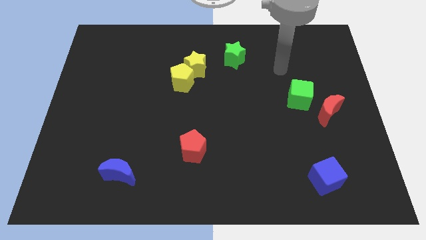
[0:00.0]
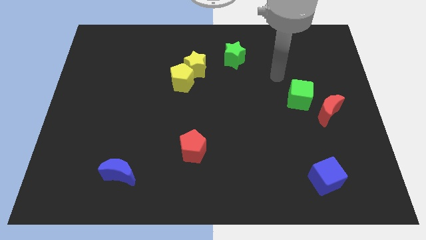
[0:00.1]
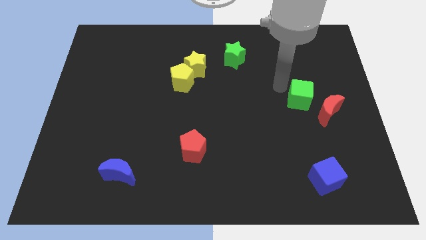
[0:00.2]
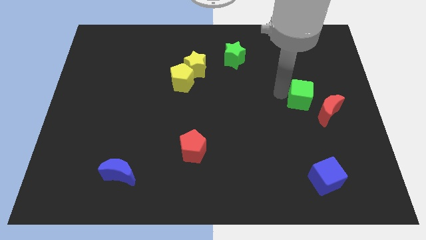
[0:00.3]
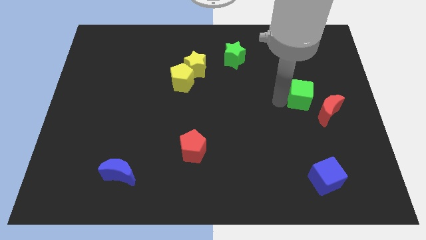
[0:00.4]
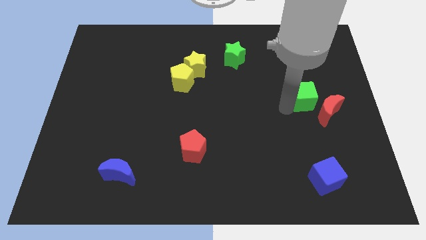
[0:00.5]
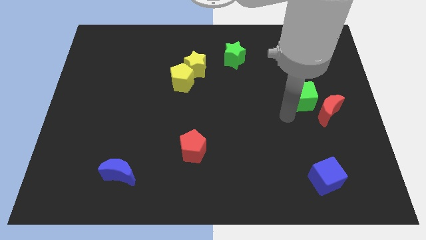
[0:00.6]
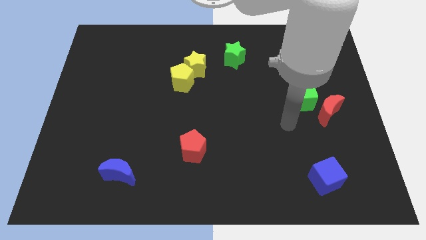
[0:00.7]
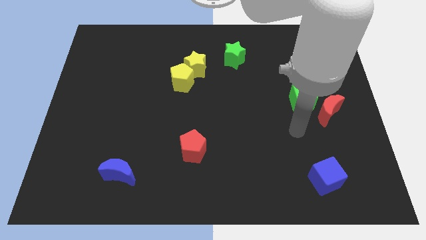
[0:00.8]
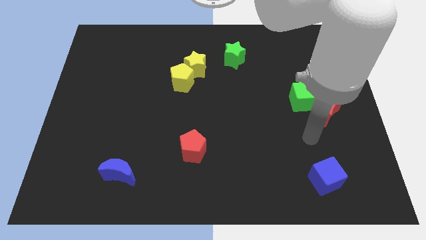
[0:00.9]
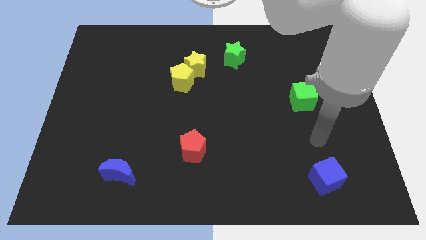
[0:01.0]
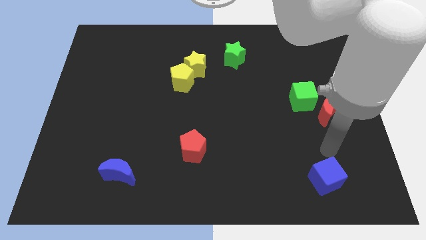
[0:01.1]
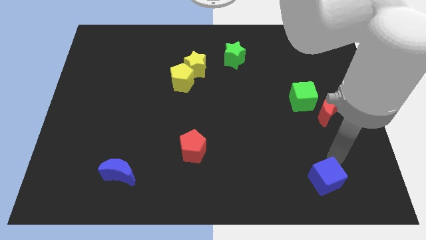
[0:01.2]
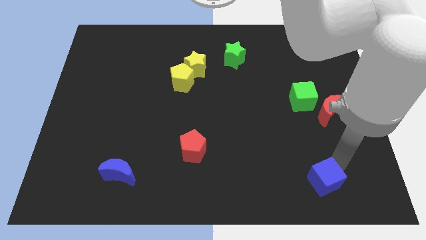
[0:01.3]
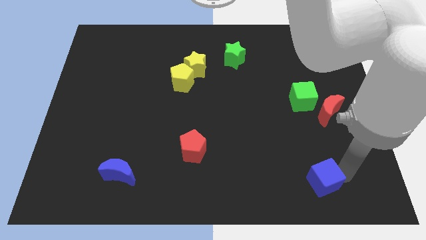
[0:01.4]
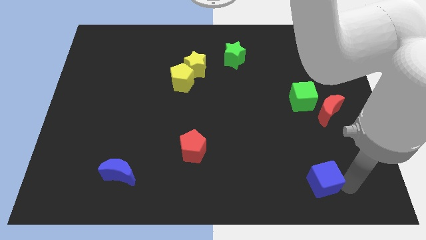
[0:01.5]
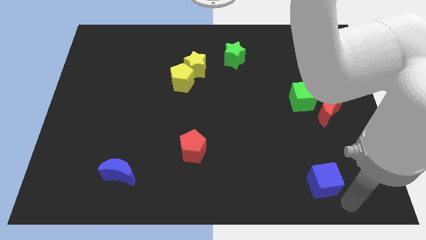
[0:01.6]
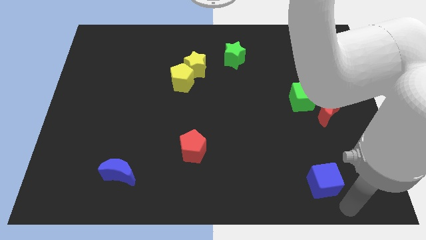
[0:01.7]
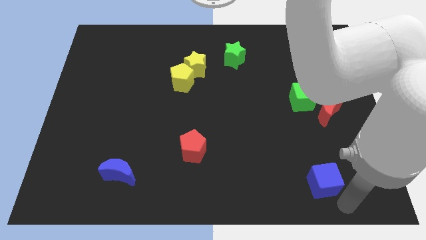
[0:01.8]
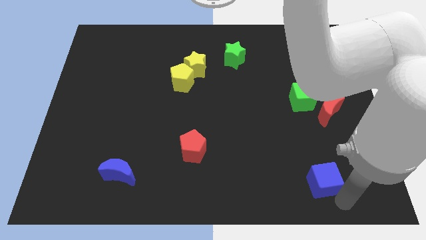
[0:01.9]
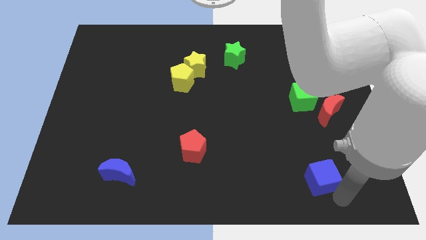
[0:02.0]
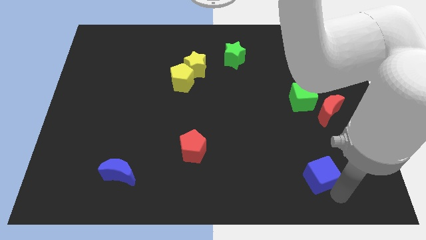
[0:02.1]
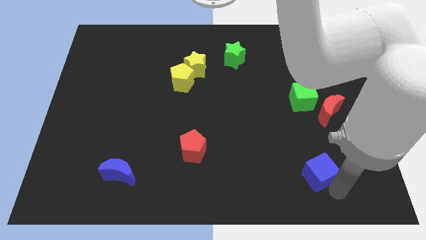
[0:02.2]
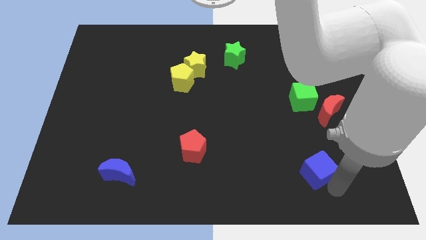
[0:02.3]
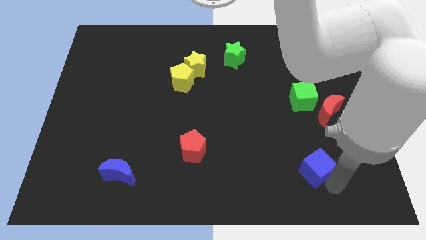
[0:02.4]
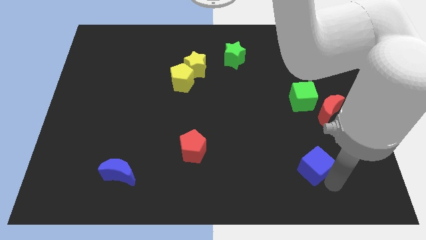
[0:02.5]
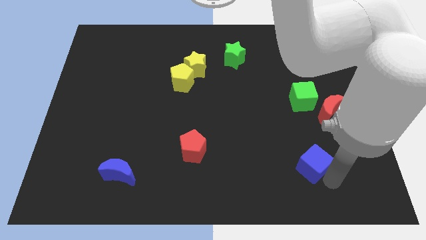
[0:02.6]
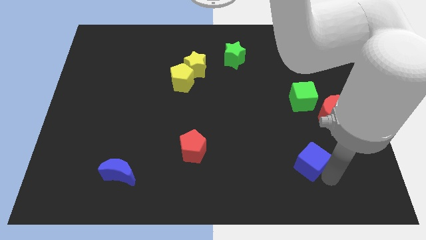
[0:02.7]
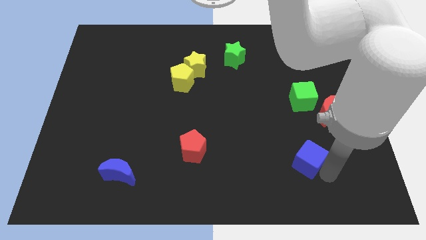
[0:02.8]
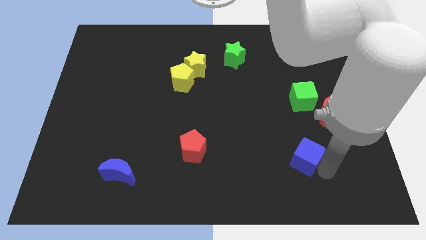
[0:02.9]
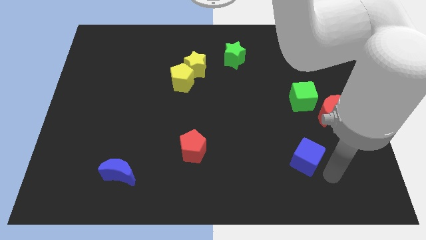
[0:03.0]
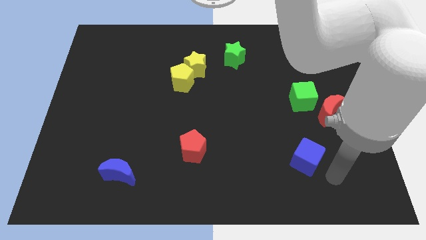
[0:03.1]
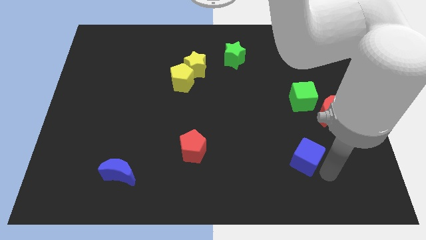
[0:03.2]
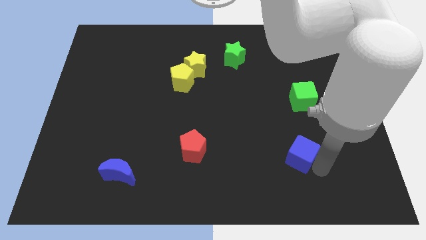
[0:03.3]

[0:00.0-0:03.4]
push the blue cube diagonally upwards and left somewhat

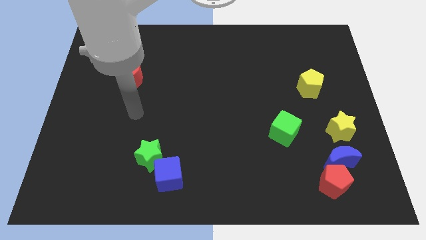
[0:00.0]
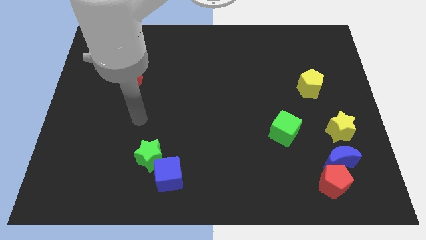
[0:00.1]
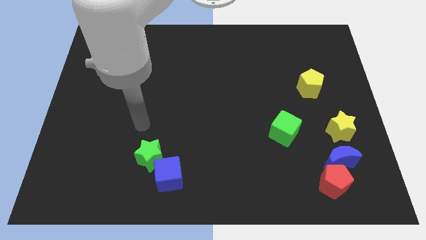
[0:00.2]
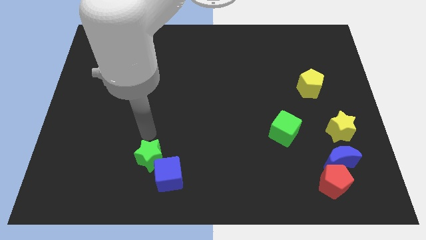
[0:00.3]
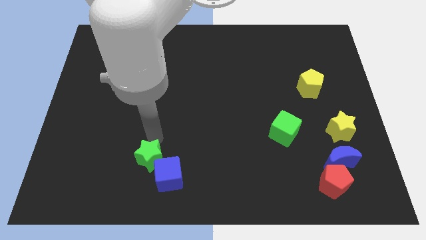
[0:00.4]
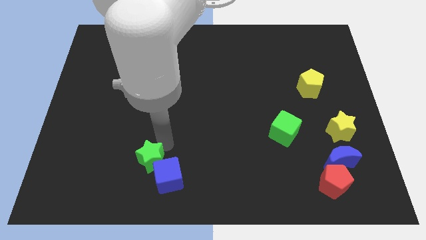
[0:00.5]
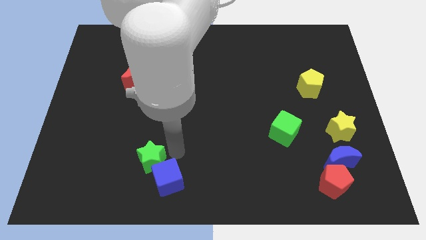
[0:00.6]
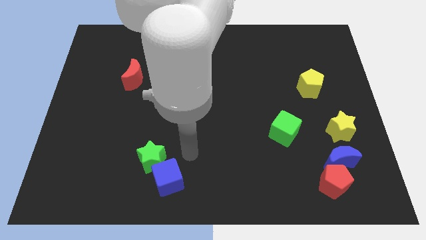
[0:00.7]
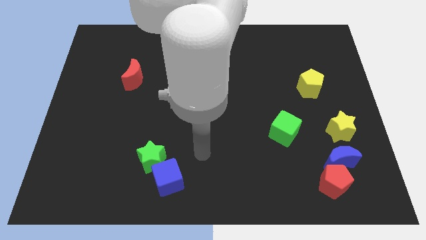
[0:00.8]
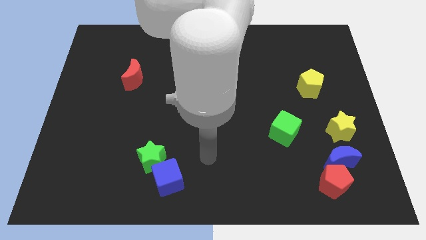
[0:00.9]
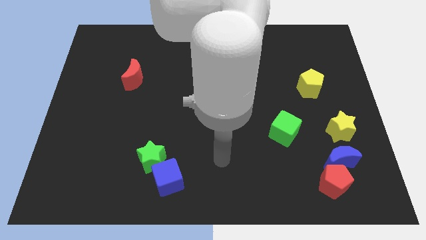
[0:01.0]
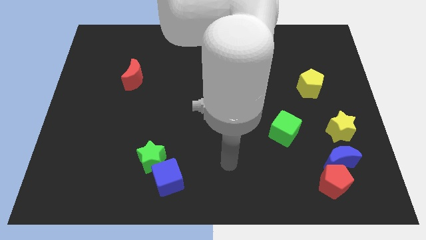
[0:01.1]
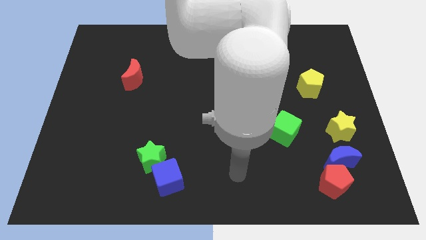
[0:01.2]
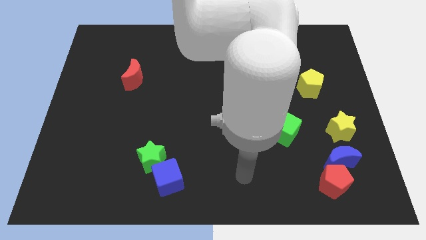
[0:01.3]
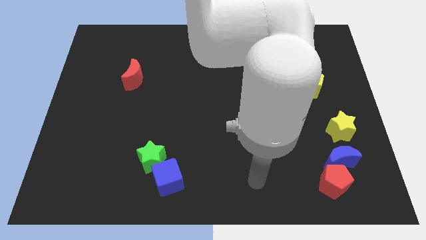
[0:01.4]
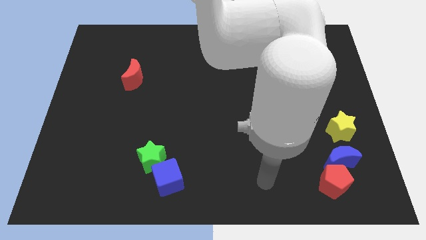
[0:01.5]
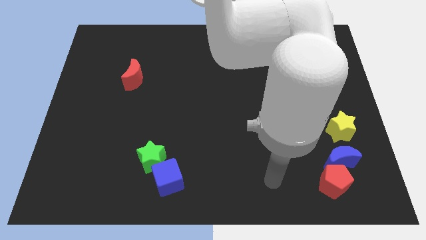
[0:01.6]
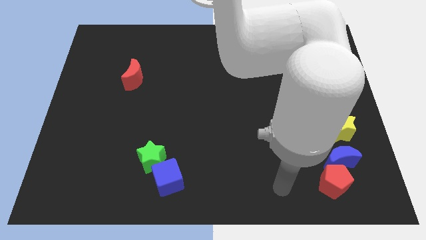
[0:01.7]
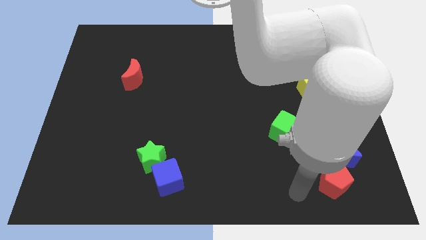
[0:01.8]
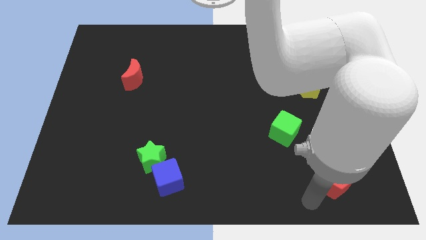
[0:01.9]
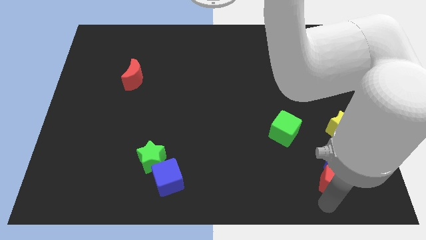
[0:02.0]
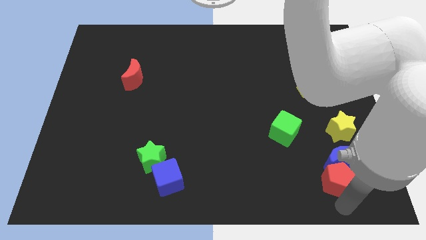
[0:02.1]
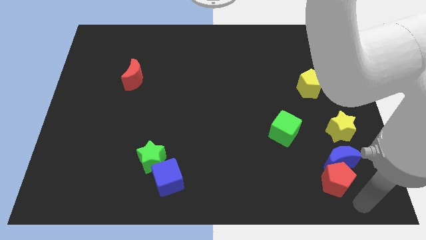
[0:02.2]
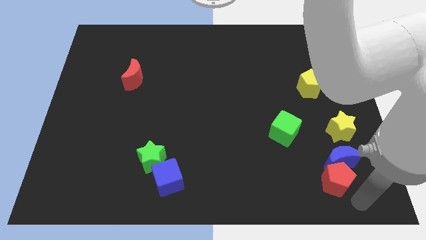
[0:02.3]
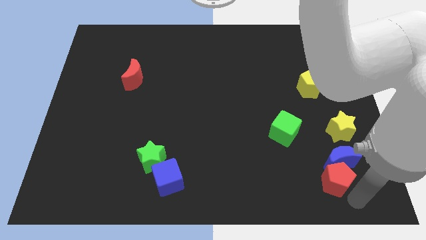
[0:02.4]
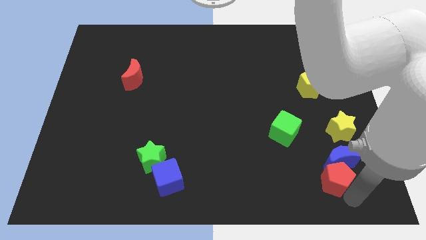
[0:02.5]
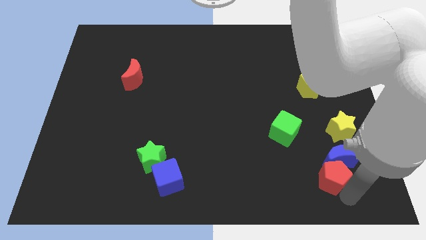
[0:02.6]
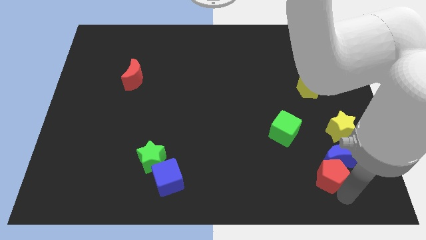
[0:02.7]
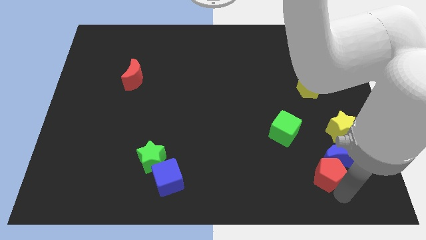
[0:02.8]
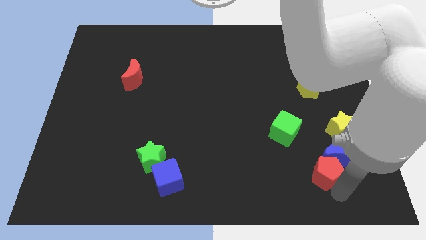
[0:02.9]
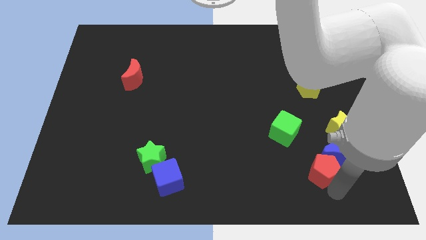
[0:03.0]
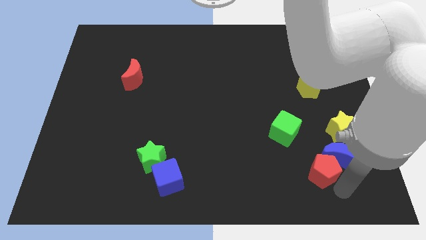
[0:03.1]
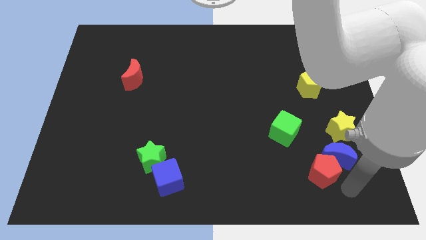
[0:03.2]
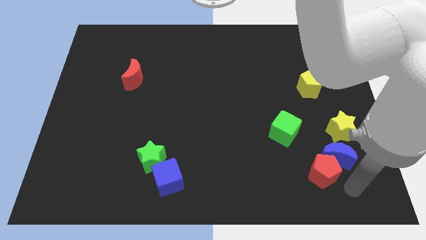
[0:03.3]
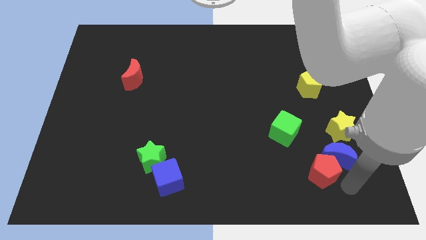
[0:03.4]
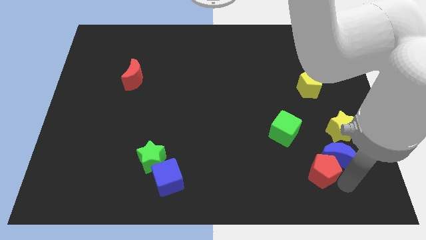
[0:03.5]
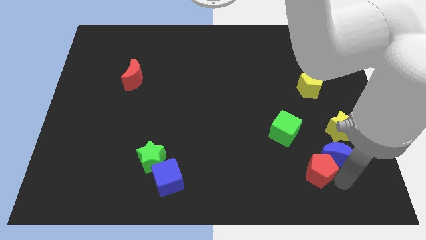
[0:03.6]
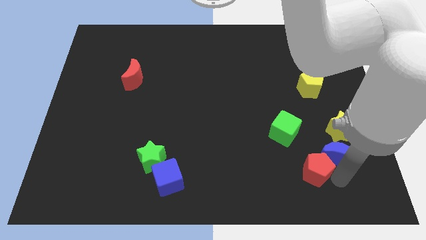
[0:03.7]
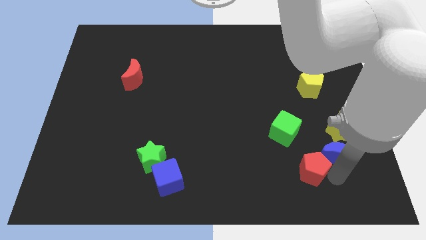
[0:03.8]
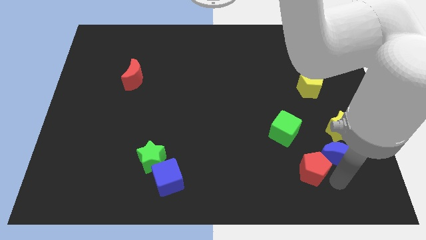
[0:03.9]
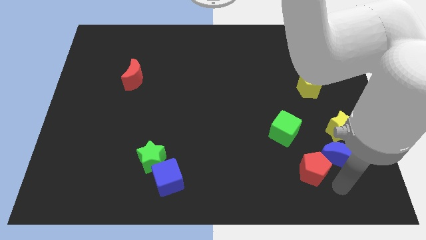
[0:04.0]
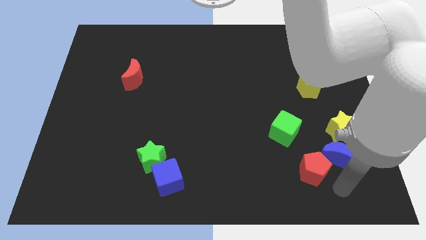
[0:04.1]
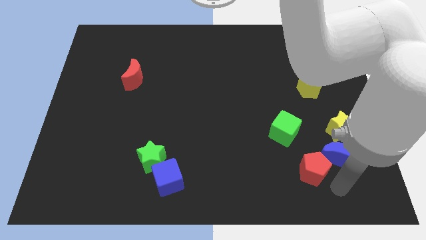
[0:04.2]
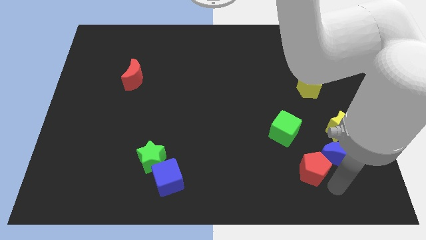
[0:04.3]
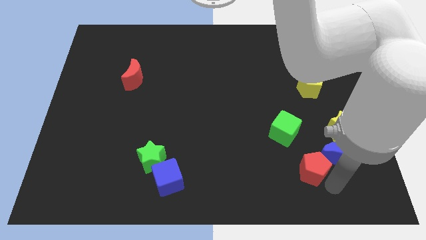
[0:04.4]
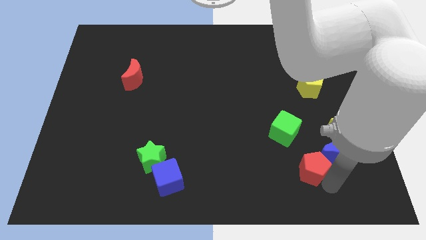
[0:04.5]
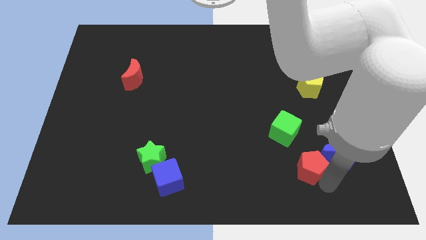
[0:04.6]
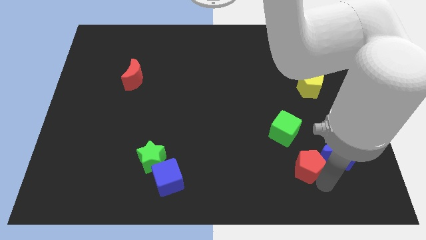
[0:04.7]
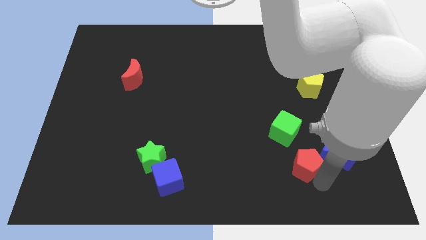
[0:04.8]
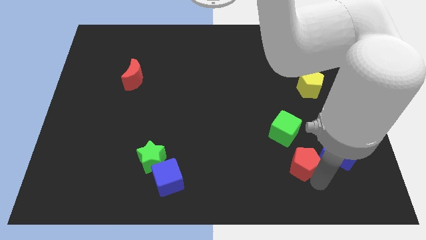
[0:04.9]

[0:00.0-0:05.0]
slightly move the red pentagon upwards and then to the left
